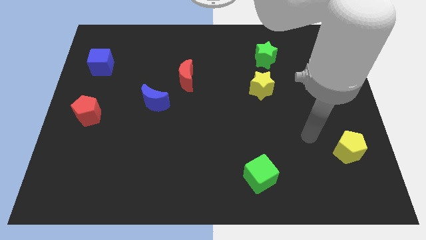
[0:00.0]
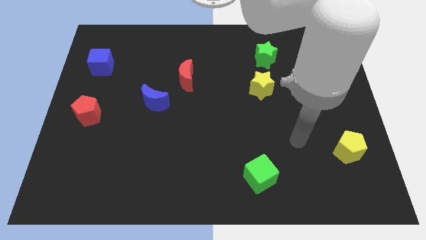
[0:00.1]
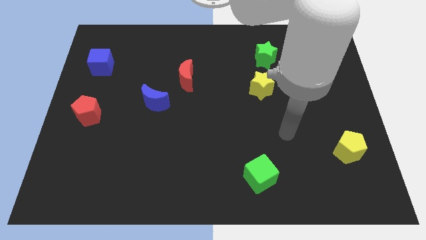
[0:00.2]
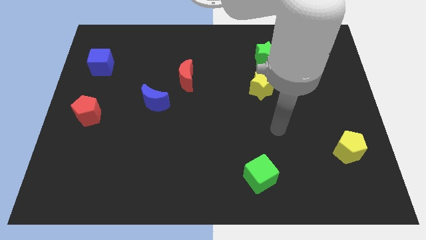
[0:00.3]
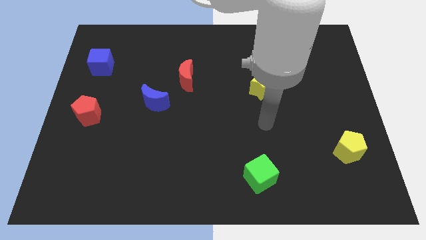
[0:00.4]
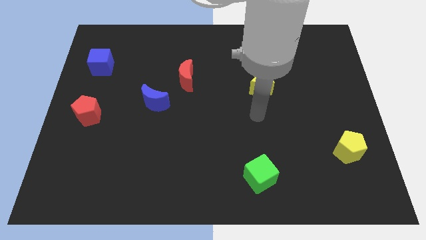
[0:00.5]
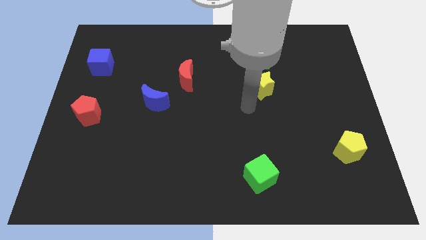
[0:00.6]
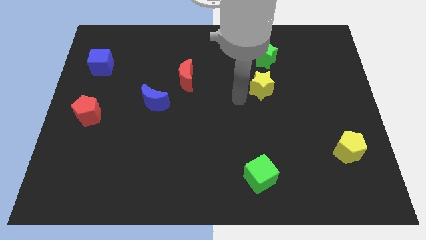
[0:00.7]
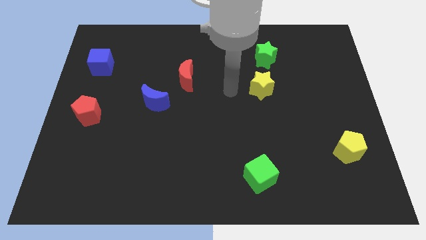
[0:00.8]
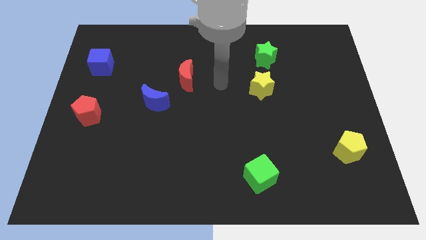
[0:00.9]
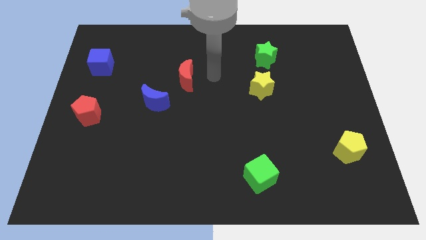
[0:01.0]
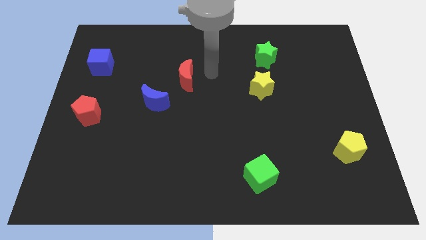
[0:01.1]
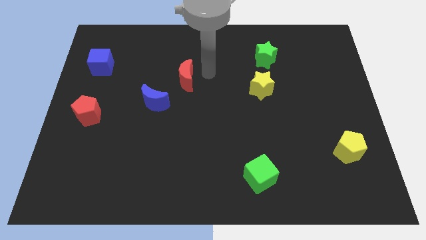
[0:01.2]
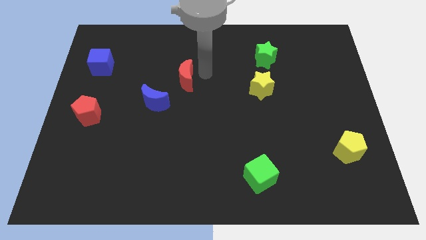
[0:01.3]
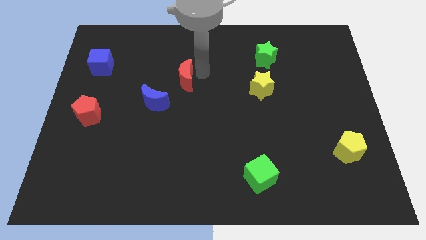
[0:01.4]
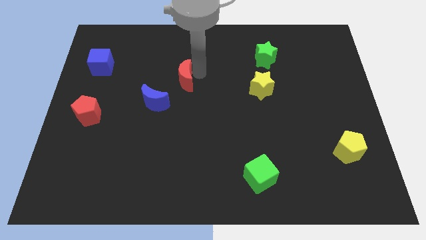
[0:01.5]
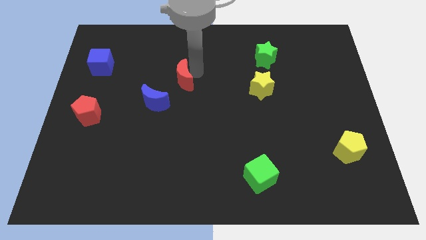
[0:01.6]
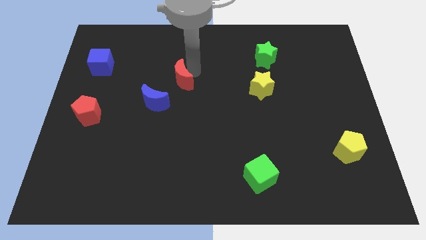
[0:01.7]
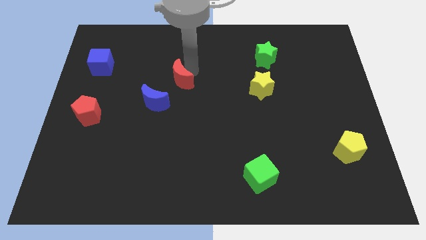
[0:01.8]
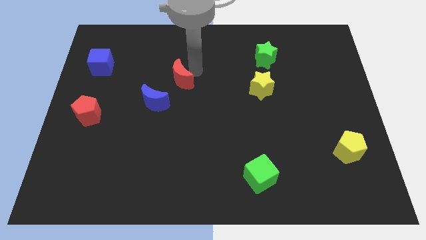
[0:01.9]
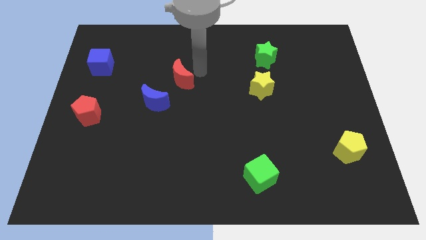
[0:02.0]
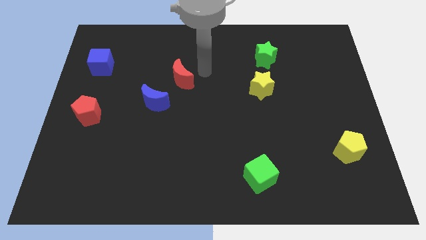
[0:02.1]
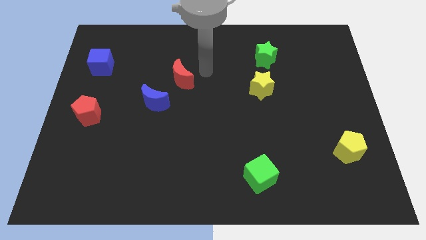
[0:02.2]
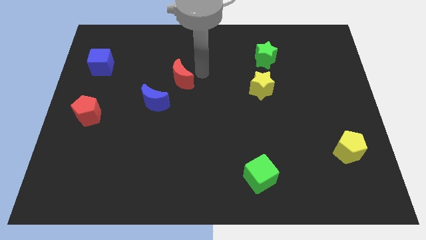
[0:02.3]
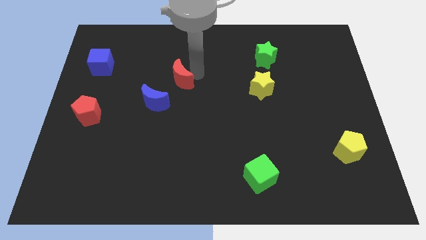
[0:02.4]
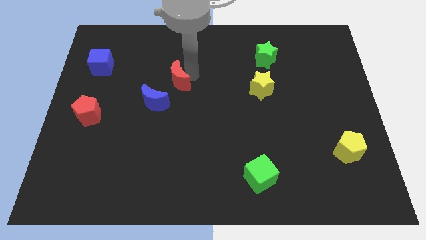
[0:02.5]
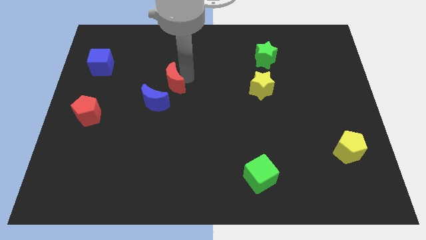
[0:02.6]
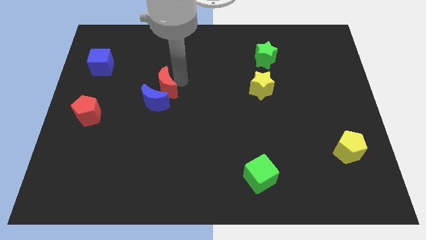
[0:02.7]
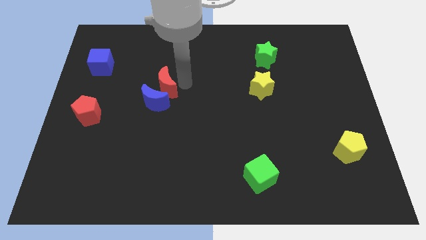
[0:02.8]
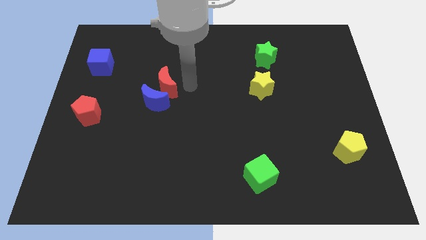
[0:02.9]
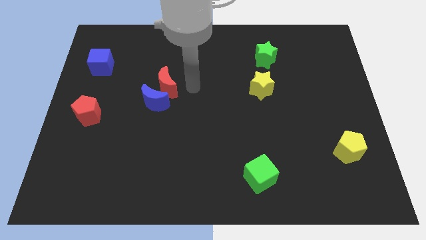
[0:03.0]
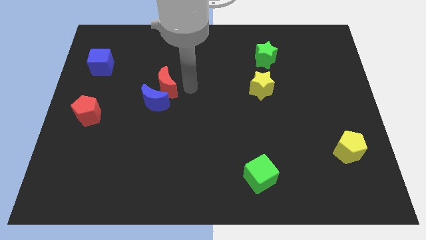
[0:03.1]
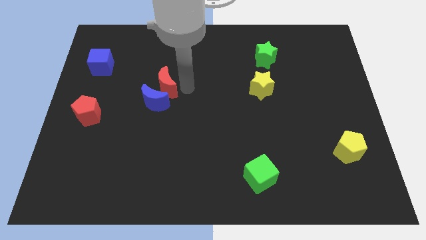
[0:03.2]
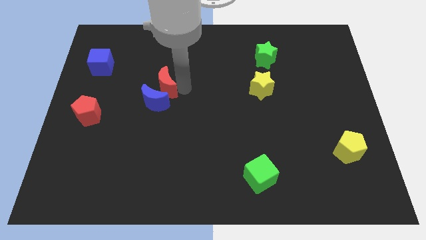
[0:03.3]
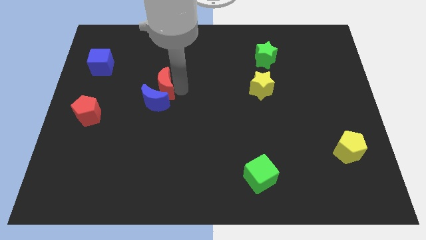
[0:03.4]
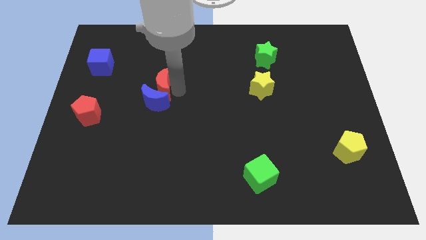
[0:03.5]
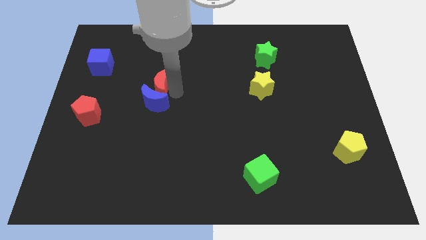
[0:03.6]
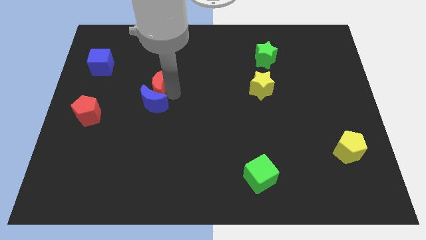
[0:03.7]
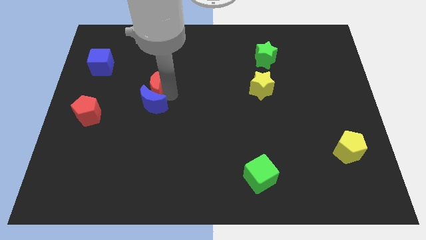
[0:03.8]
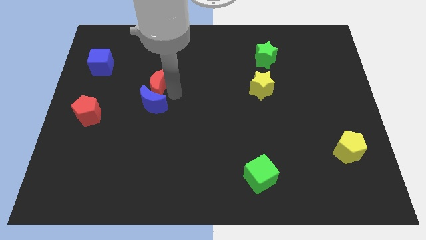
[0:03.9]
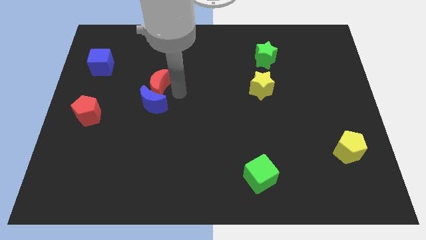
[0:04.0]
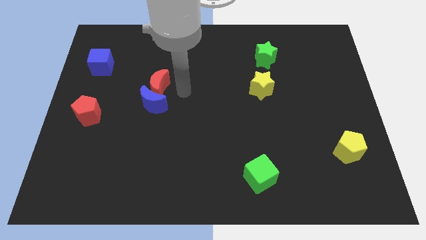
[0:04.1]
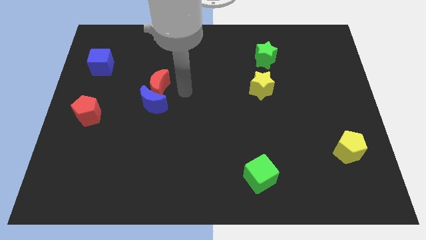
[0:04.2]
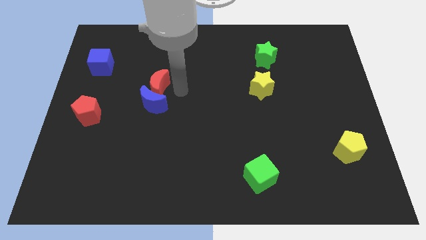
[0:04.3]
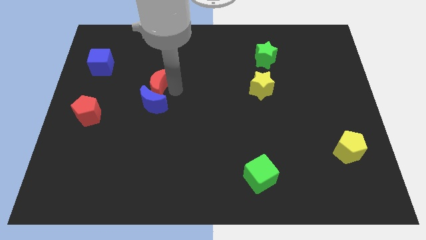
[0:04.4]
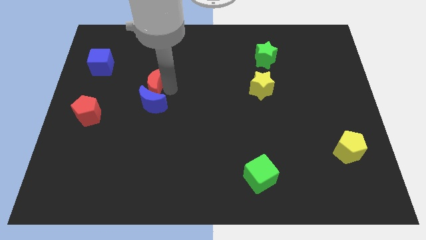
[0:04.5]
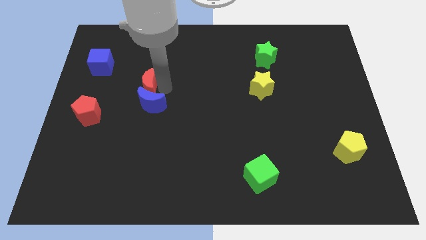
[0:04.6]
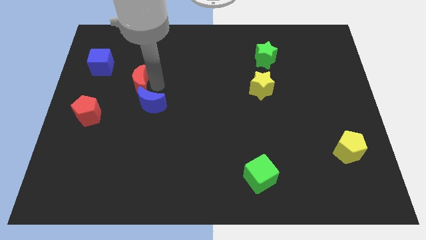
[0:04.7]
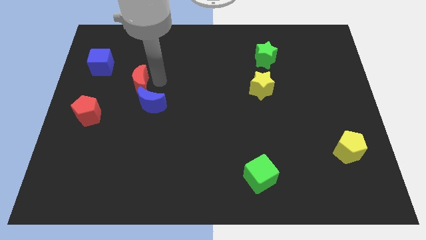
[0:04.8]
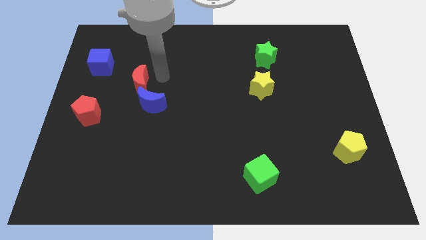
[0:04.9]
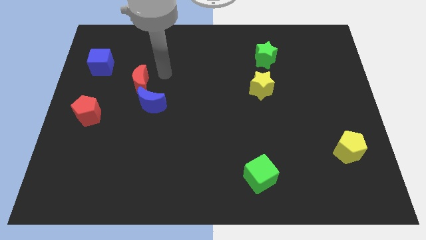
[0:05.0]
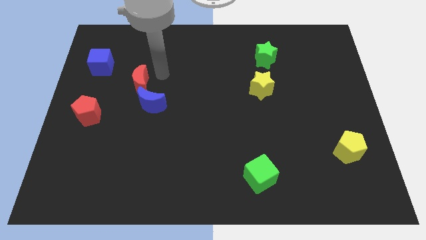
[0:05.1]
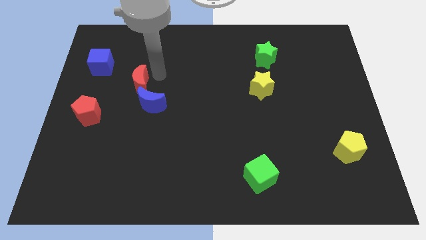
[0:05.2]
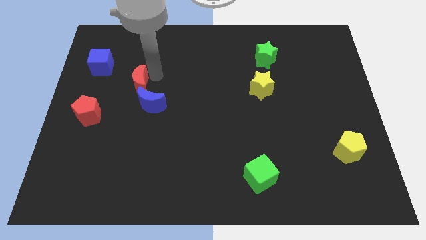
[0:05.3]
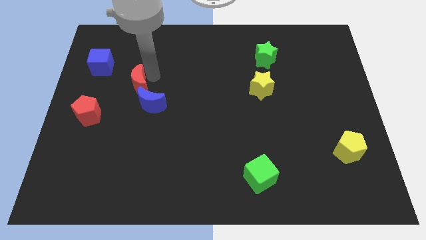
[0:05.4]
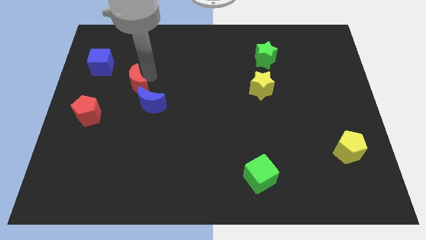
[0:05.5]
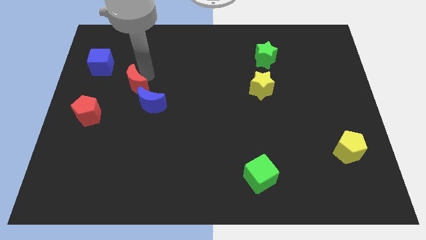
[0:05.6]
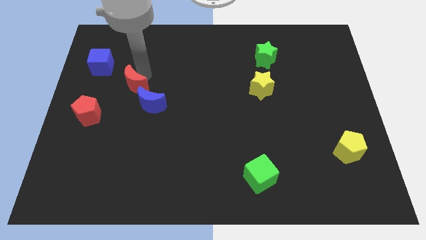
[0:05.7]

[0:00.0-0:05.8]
push the red moon diagonally up and to the right of the red pentagon

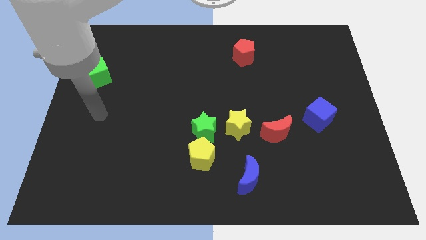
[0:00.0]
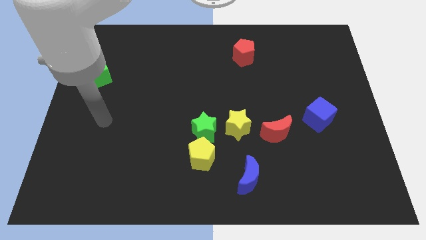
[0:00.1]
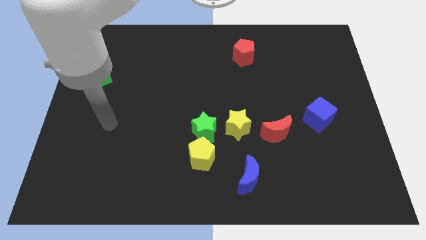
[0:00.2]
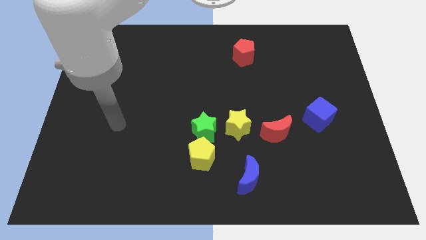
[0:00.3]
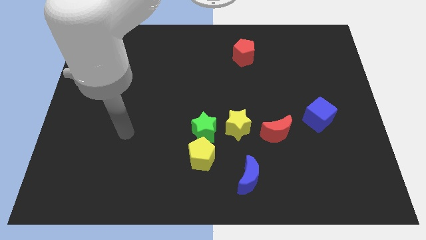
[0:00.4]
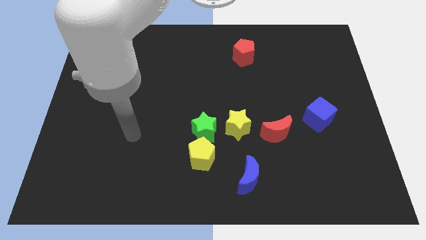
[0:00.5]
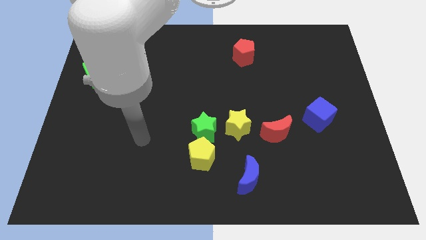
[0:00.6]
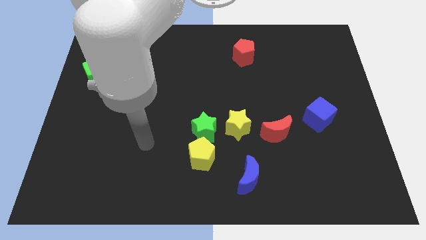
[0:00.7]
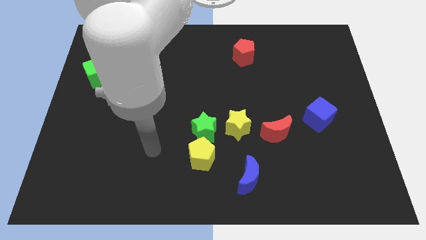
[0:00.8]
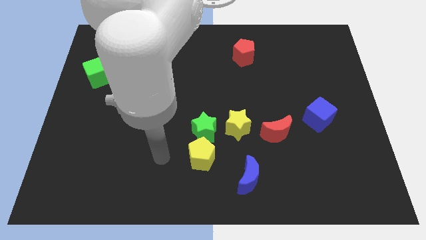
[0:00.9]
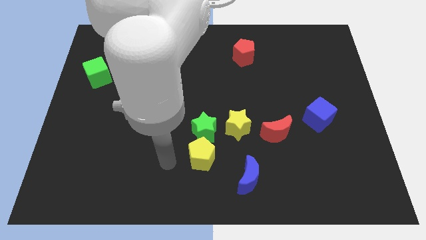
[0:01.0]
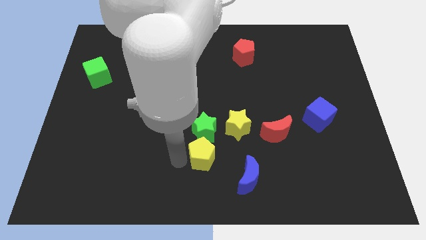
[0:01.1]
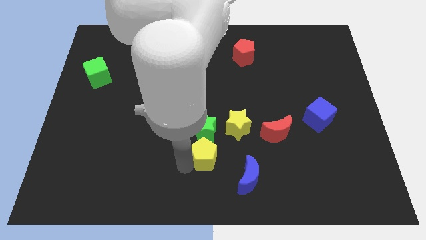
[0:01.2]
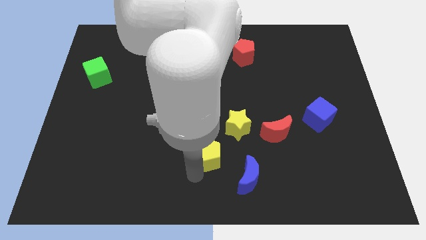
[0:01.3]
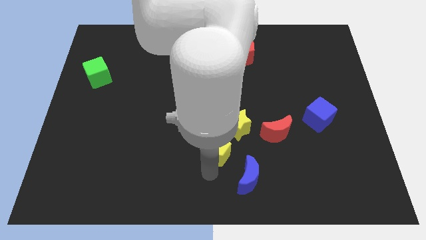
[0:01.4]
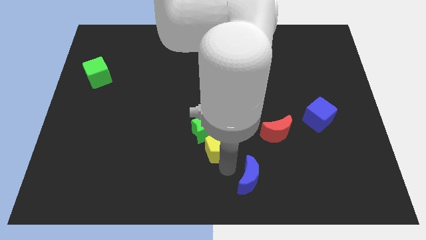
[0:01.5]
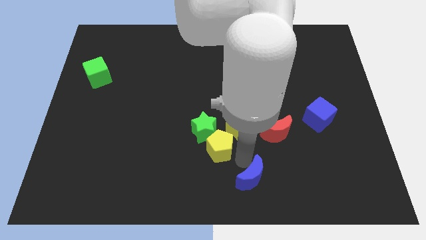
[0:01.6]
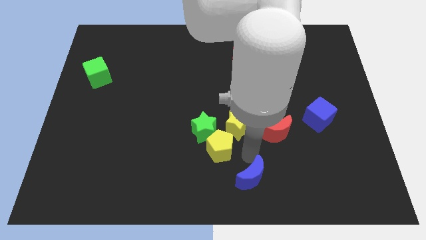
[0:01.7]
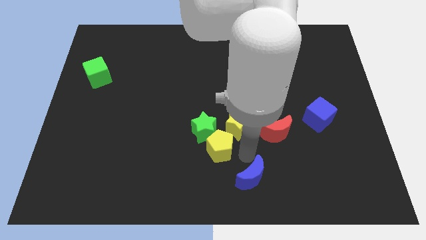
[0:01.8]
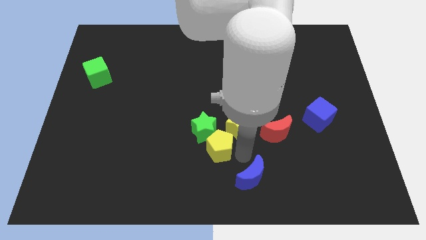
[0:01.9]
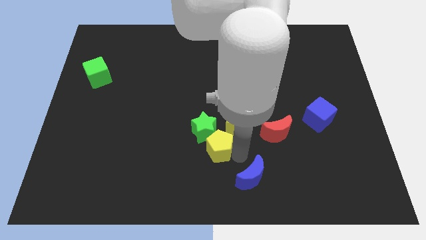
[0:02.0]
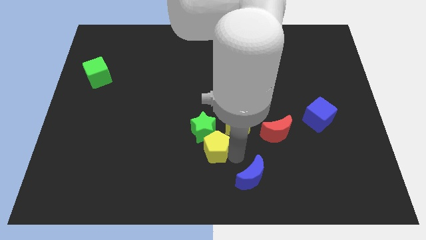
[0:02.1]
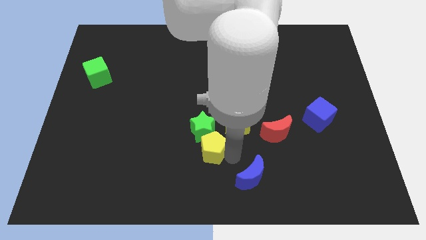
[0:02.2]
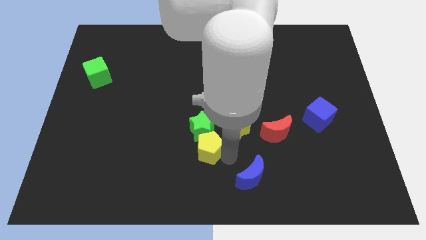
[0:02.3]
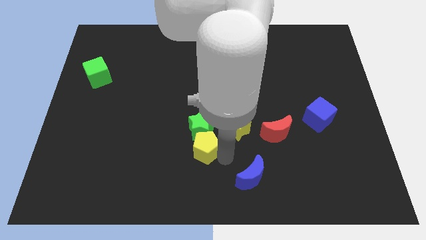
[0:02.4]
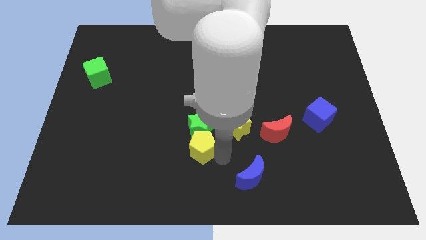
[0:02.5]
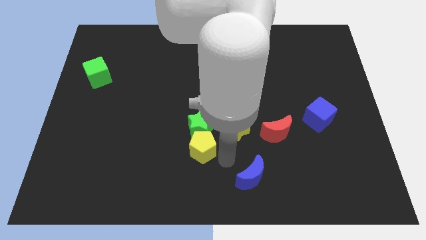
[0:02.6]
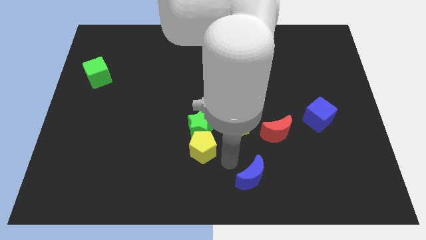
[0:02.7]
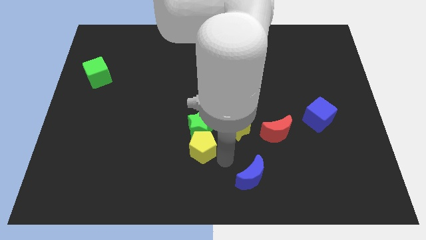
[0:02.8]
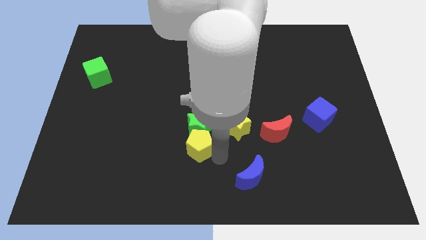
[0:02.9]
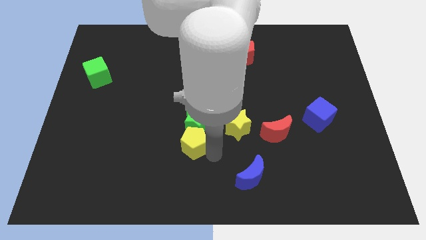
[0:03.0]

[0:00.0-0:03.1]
push the yellow pentagon just left of the yellow star
